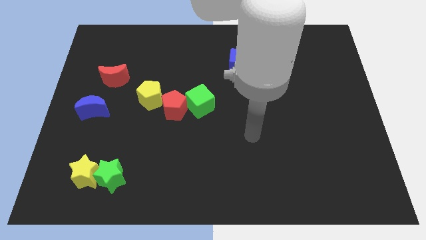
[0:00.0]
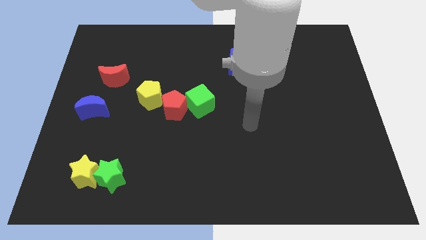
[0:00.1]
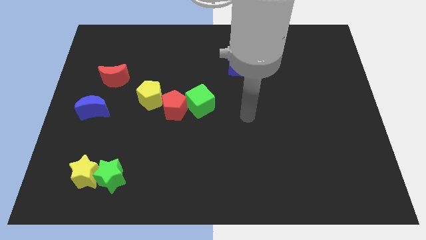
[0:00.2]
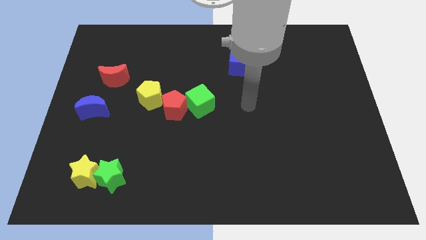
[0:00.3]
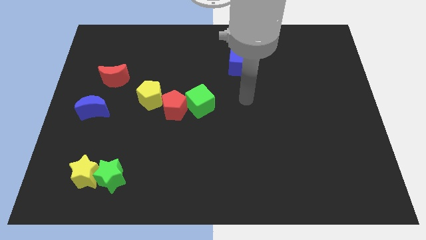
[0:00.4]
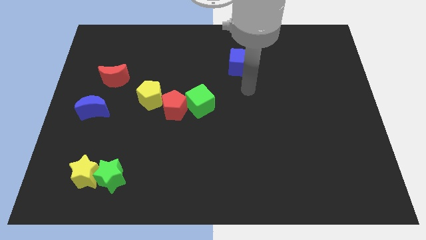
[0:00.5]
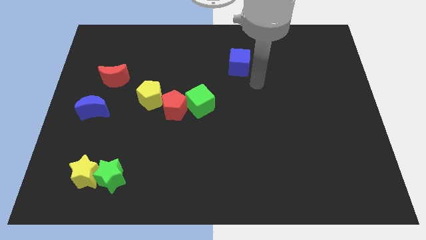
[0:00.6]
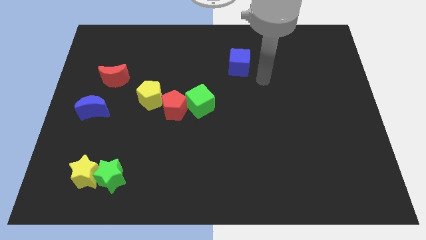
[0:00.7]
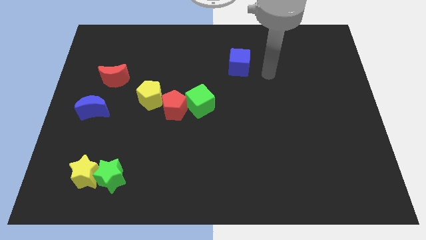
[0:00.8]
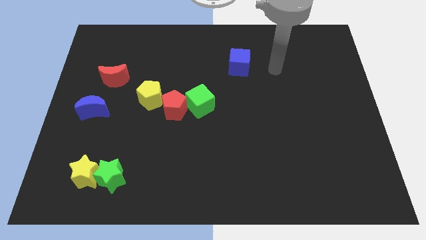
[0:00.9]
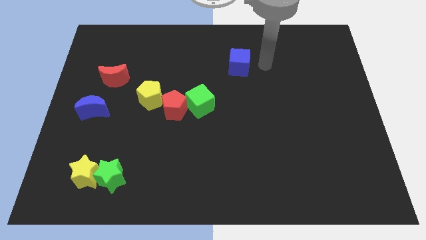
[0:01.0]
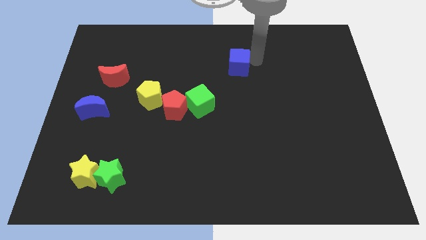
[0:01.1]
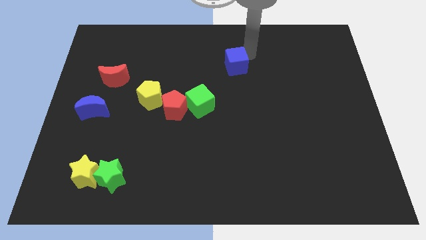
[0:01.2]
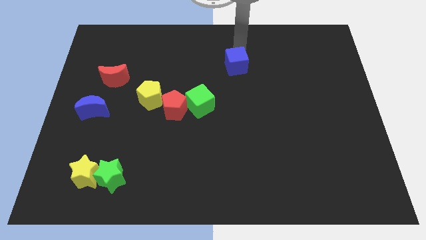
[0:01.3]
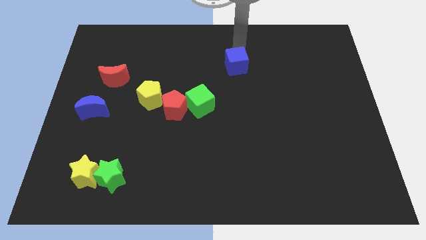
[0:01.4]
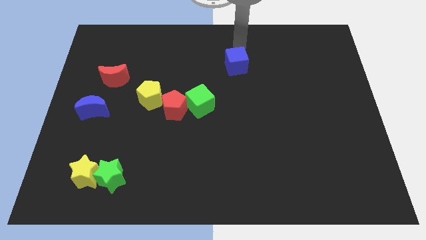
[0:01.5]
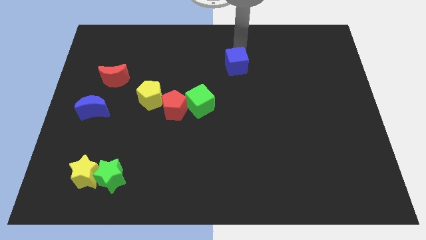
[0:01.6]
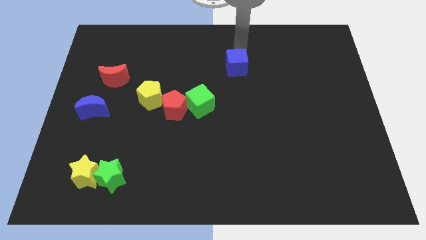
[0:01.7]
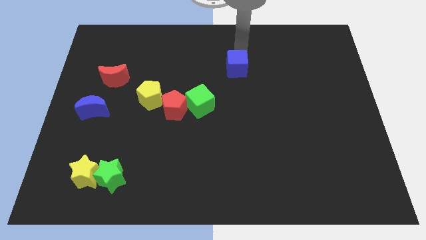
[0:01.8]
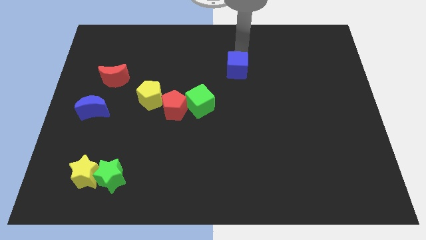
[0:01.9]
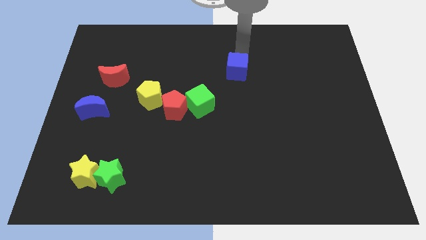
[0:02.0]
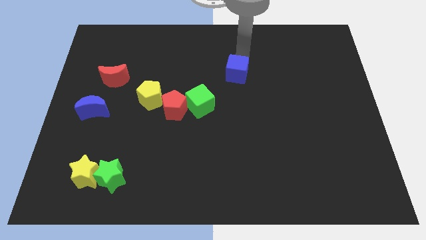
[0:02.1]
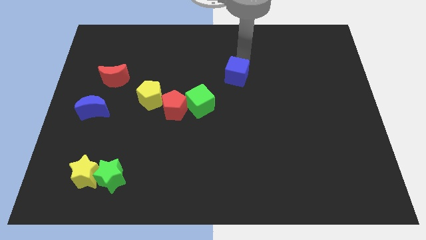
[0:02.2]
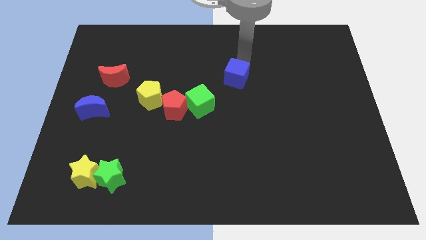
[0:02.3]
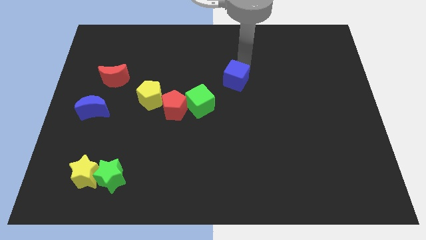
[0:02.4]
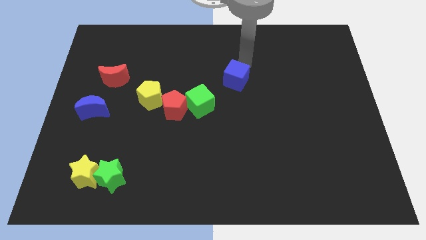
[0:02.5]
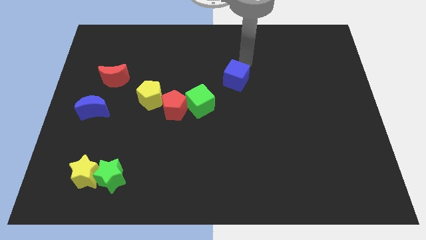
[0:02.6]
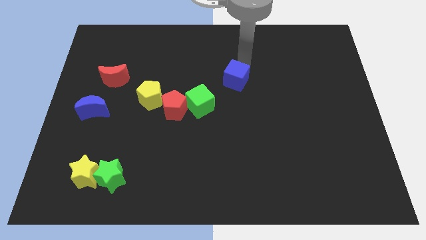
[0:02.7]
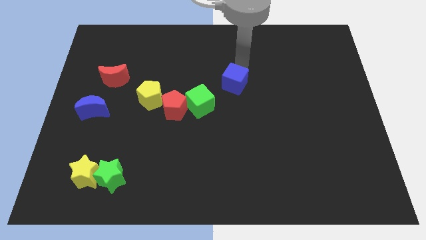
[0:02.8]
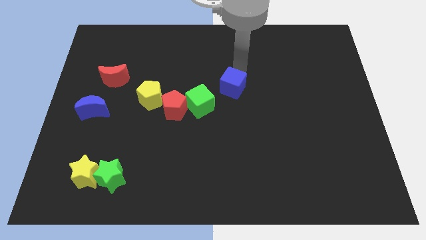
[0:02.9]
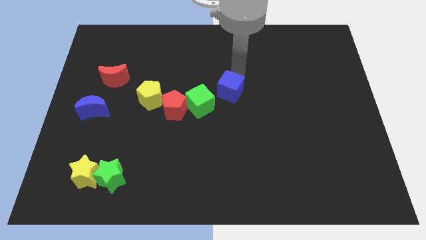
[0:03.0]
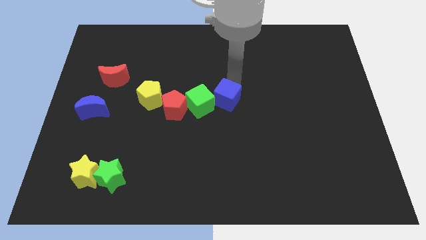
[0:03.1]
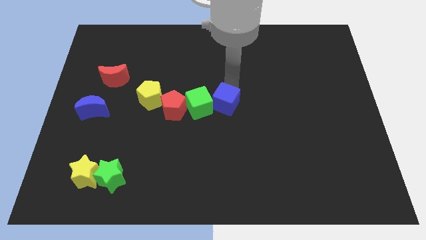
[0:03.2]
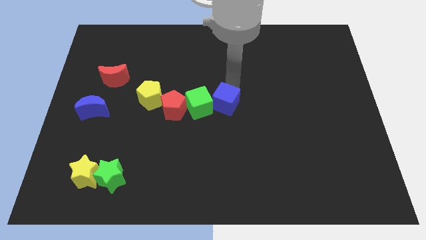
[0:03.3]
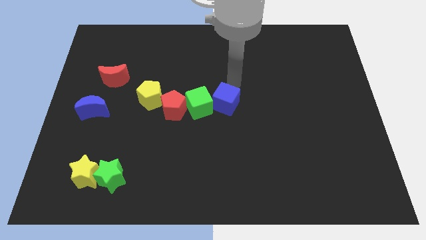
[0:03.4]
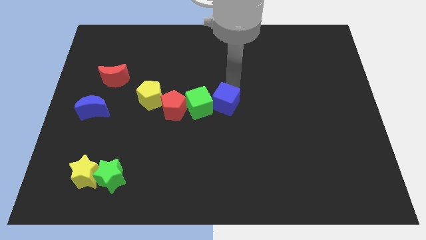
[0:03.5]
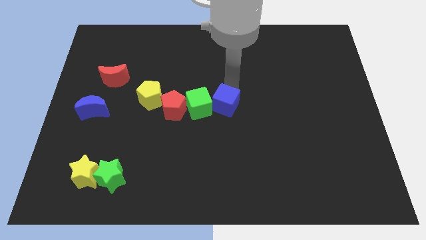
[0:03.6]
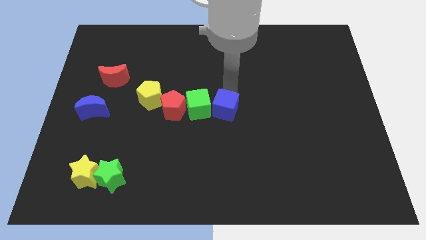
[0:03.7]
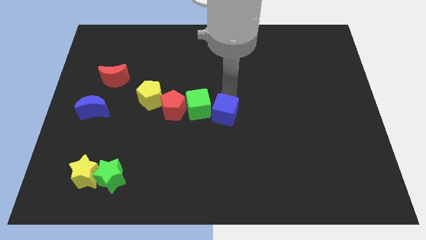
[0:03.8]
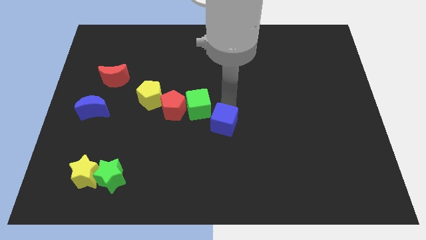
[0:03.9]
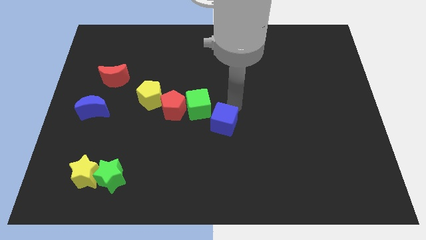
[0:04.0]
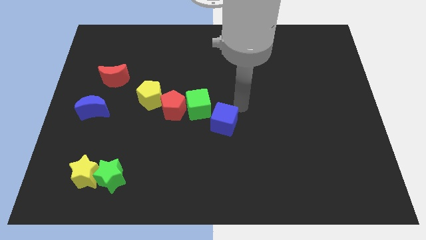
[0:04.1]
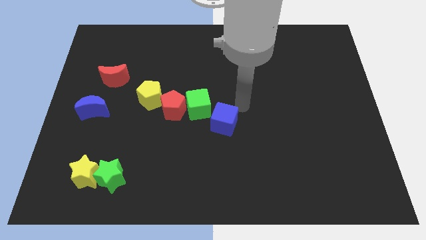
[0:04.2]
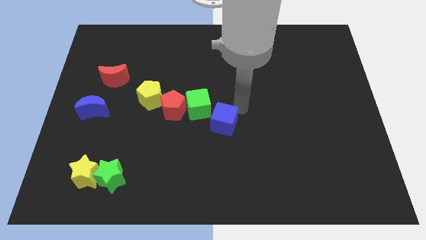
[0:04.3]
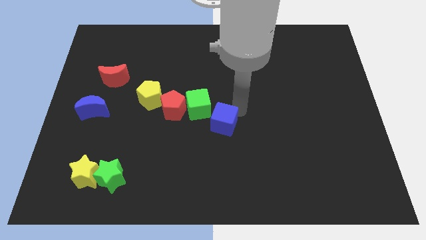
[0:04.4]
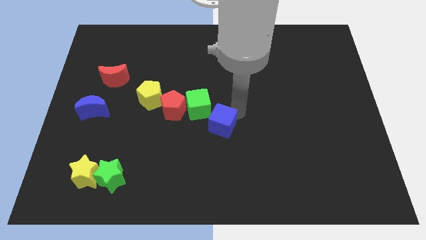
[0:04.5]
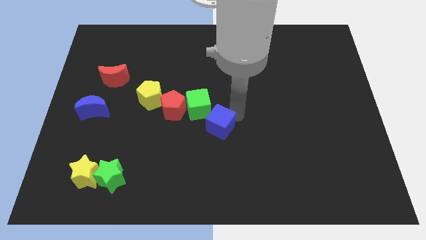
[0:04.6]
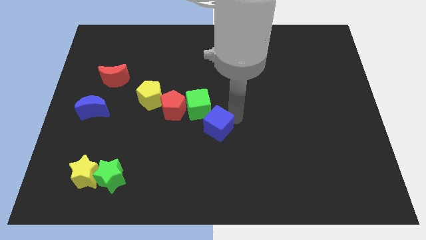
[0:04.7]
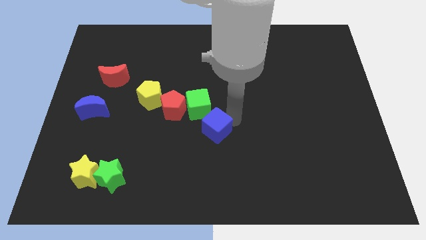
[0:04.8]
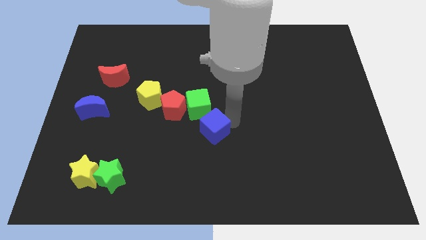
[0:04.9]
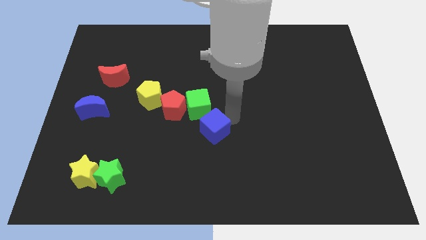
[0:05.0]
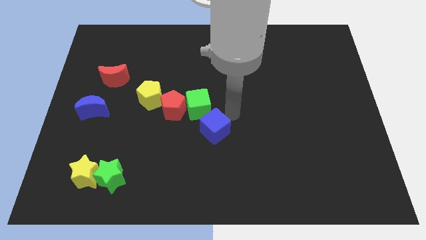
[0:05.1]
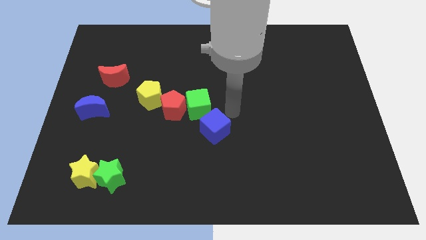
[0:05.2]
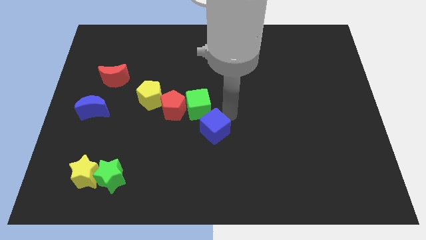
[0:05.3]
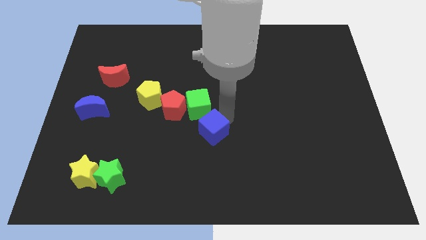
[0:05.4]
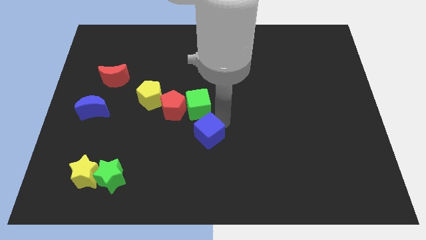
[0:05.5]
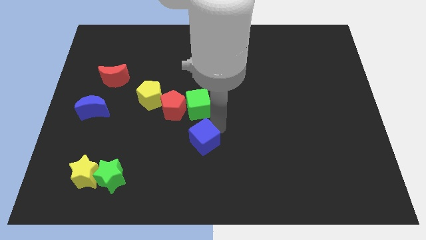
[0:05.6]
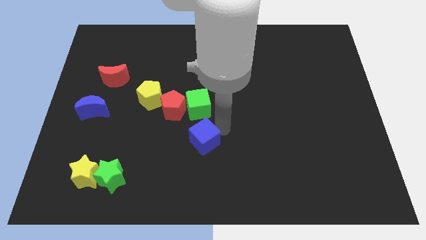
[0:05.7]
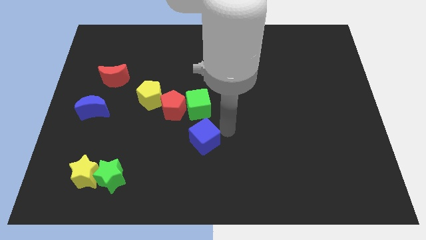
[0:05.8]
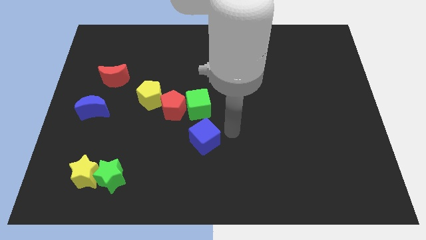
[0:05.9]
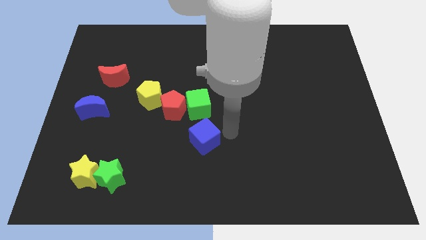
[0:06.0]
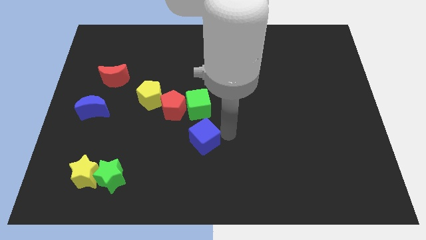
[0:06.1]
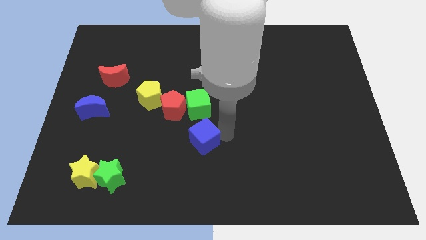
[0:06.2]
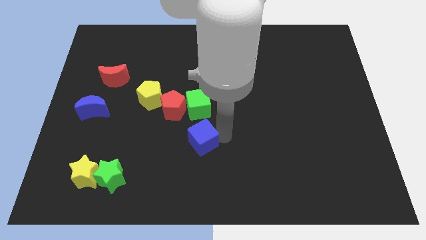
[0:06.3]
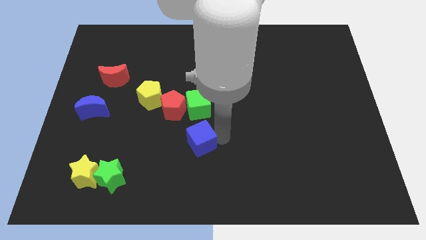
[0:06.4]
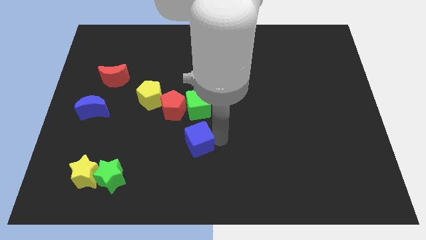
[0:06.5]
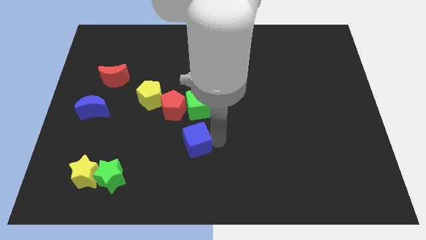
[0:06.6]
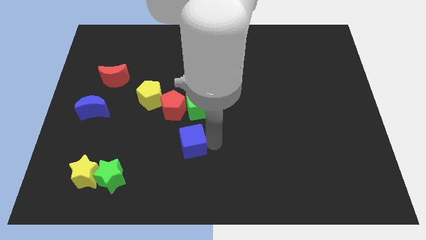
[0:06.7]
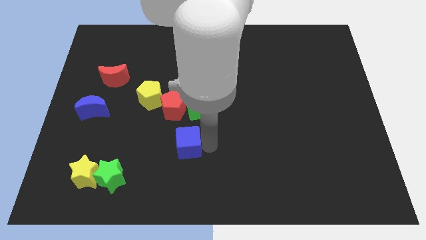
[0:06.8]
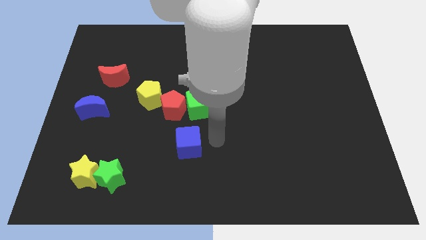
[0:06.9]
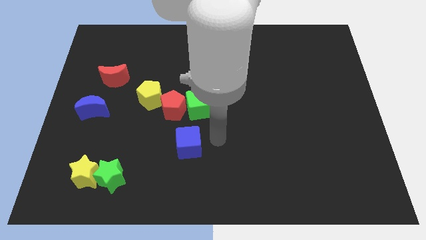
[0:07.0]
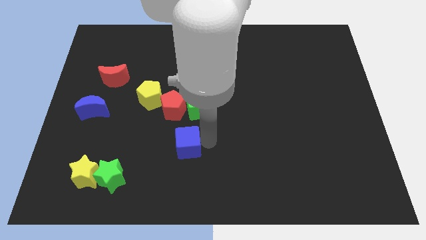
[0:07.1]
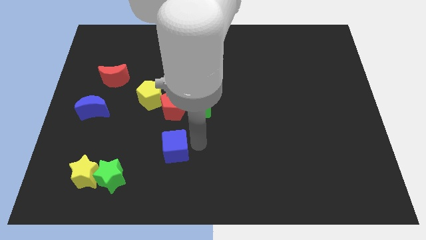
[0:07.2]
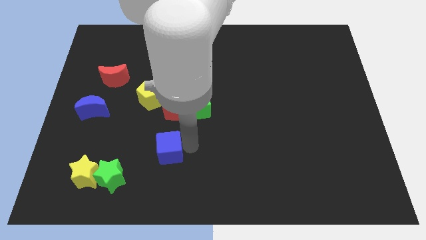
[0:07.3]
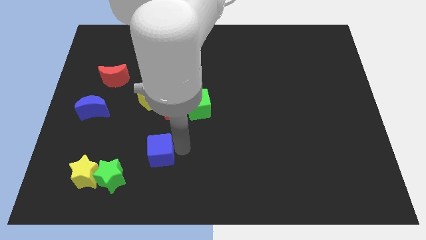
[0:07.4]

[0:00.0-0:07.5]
slide the blue cube to the top right of the green star
